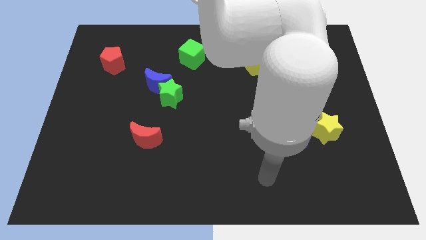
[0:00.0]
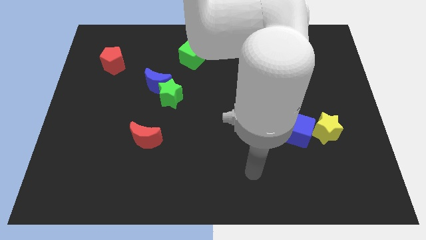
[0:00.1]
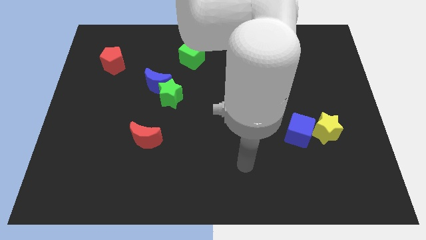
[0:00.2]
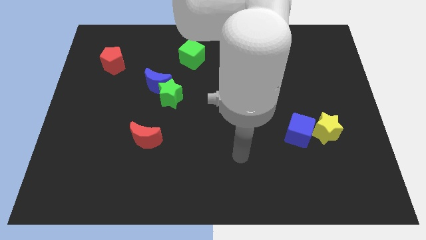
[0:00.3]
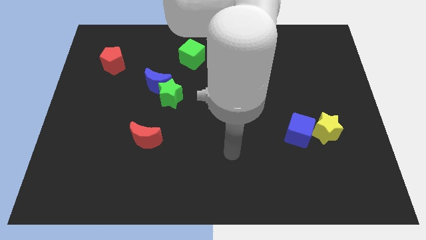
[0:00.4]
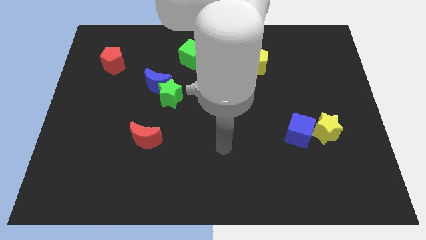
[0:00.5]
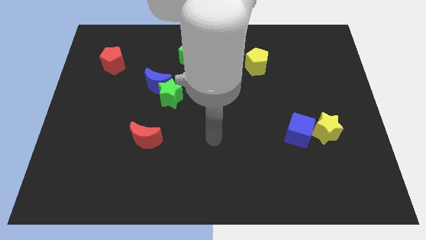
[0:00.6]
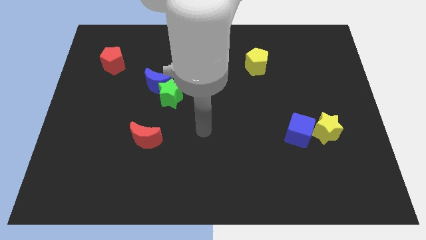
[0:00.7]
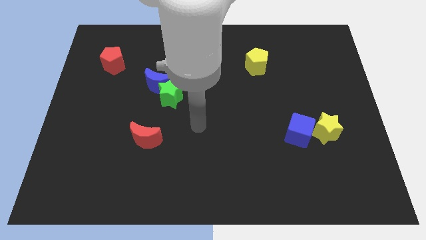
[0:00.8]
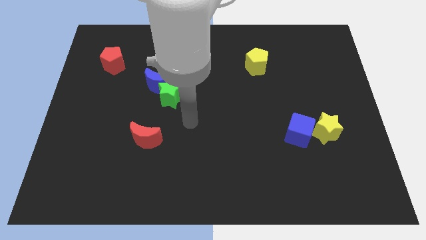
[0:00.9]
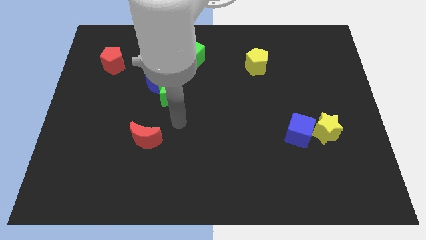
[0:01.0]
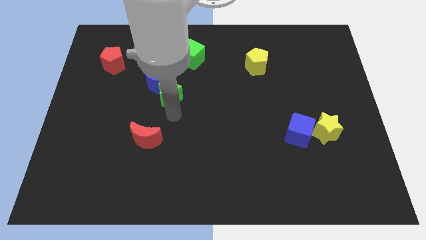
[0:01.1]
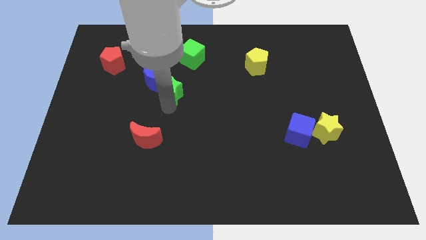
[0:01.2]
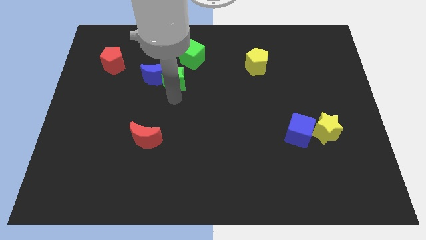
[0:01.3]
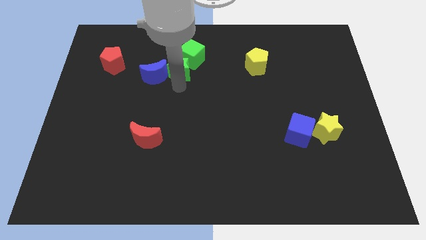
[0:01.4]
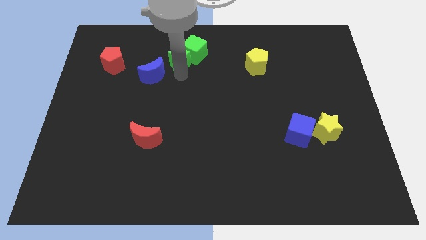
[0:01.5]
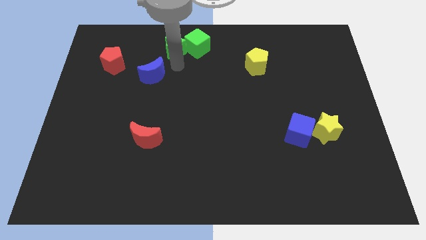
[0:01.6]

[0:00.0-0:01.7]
pull the blue moon apart from the green star

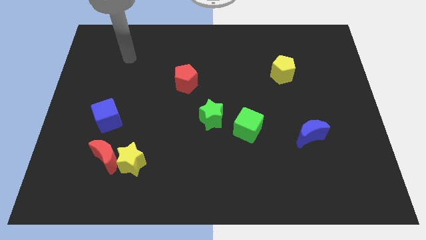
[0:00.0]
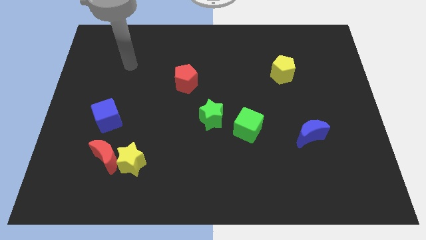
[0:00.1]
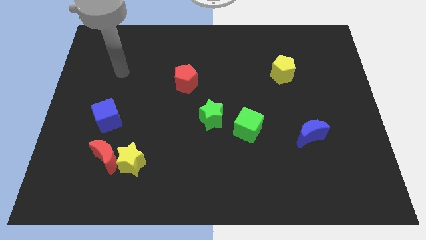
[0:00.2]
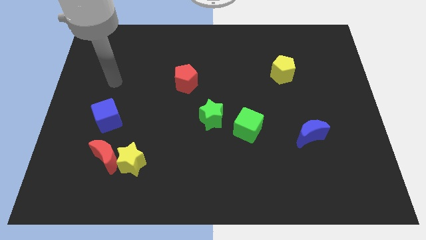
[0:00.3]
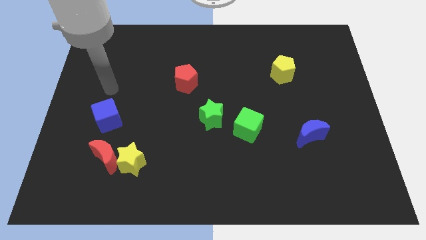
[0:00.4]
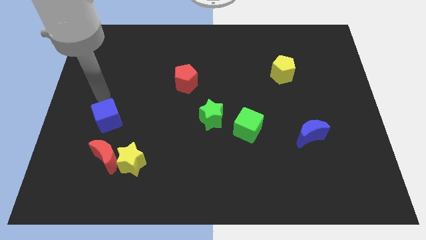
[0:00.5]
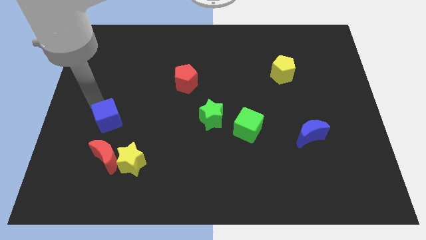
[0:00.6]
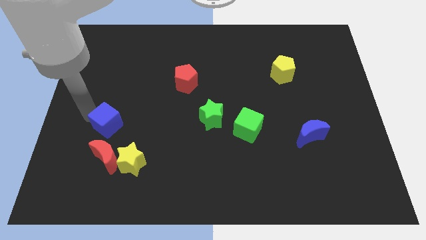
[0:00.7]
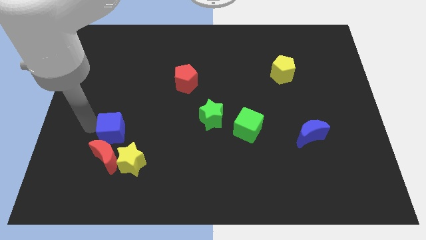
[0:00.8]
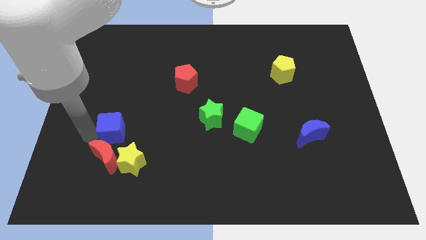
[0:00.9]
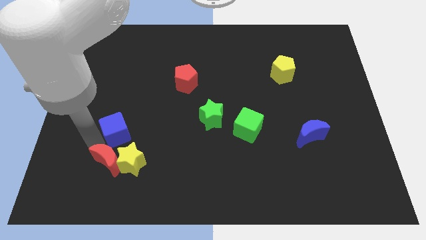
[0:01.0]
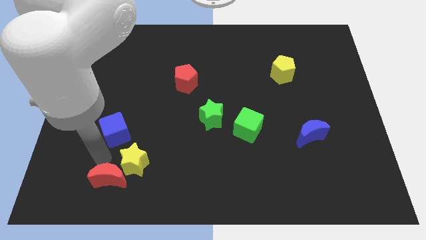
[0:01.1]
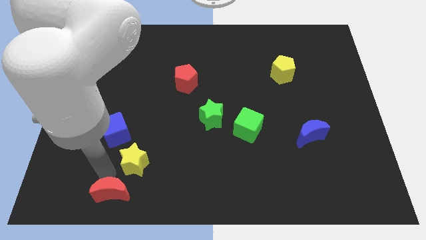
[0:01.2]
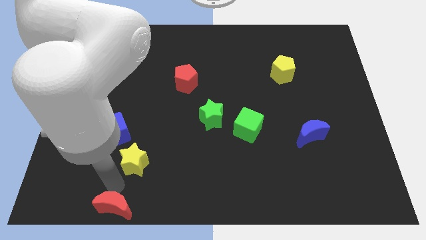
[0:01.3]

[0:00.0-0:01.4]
pull the yellow star apart from the red moon

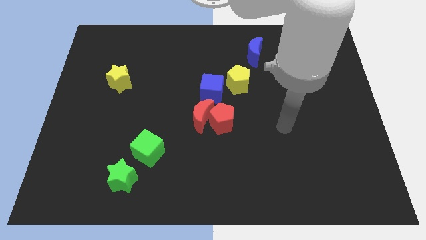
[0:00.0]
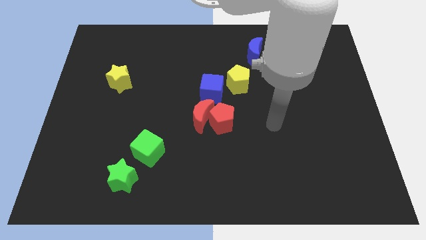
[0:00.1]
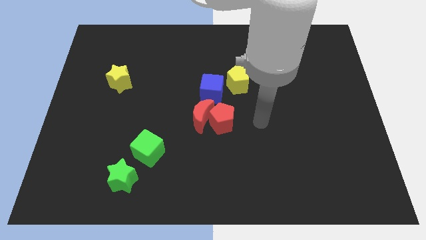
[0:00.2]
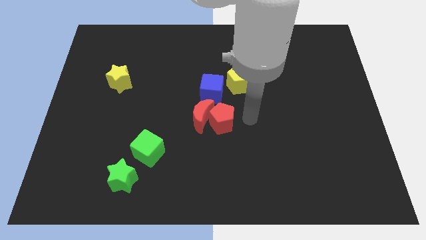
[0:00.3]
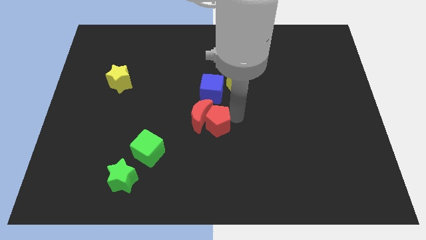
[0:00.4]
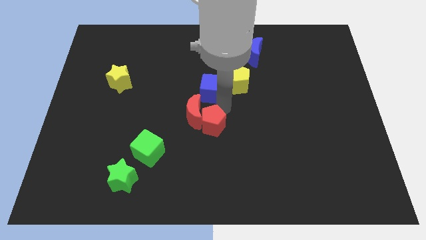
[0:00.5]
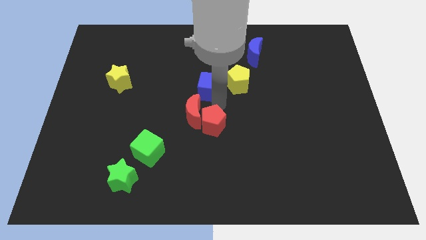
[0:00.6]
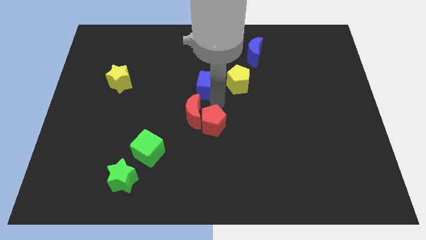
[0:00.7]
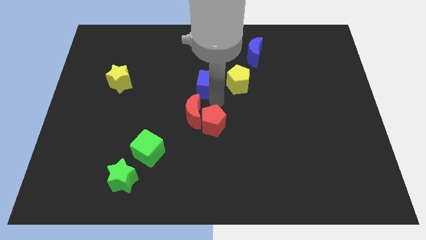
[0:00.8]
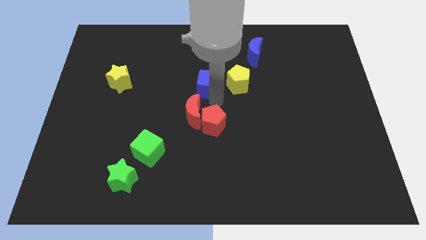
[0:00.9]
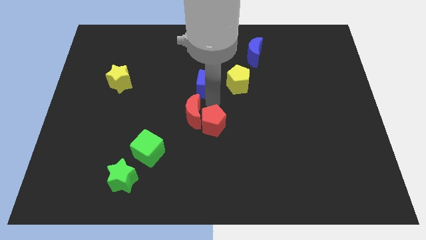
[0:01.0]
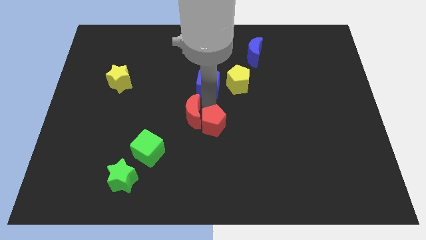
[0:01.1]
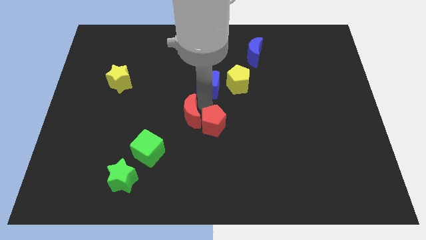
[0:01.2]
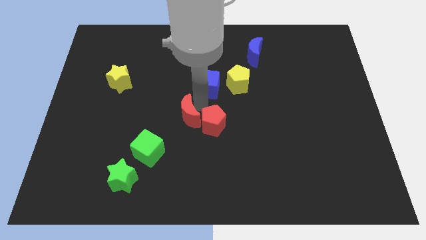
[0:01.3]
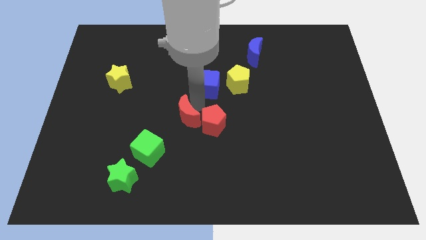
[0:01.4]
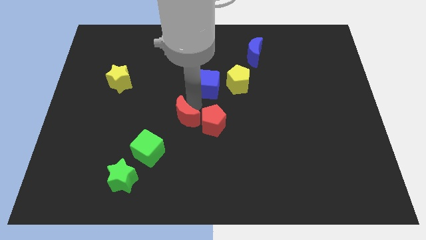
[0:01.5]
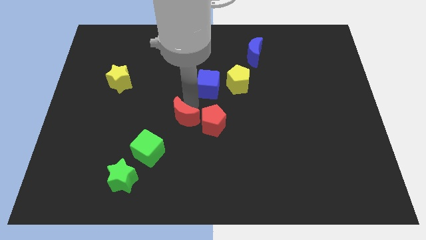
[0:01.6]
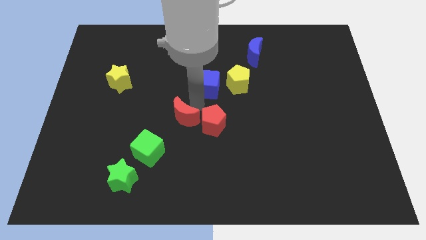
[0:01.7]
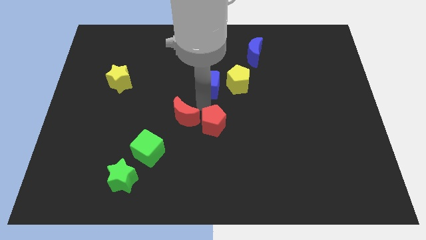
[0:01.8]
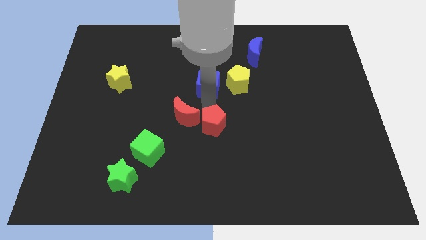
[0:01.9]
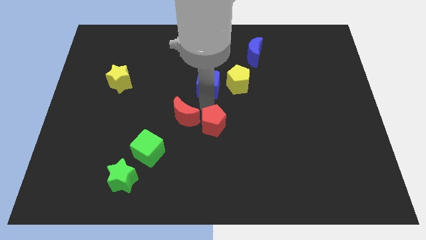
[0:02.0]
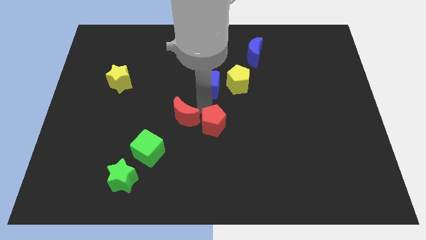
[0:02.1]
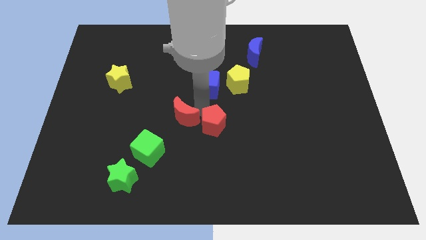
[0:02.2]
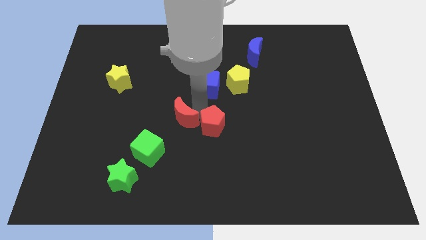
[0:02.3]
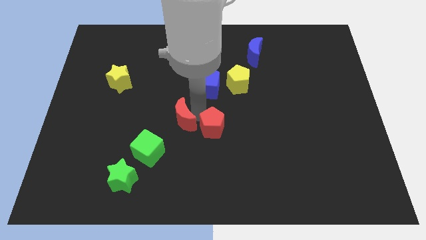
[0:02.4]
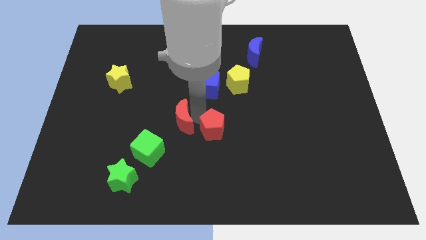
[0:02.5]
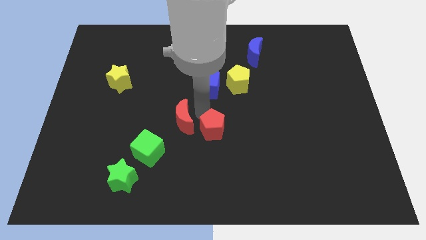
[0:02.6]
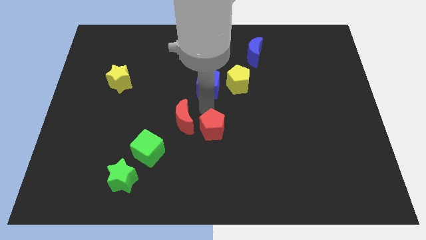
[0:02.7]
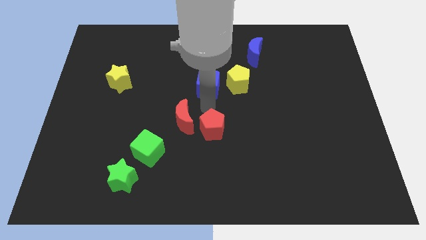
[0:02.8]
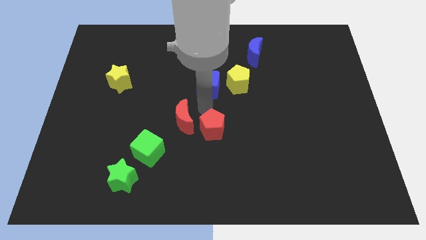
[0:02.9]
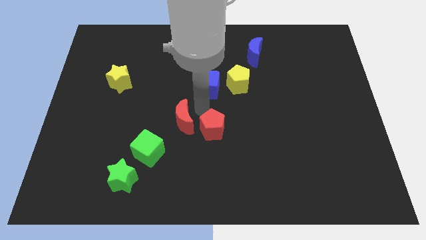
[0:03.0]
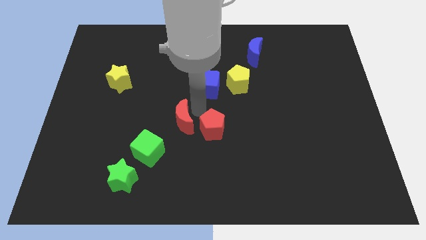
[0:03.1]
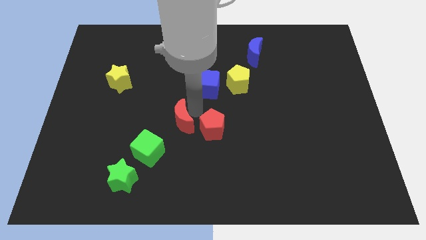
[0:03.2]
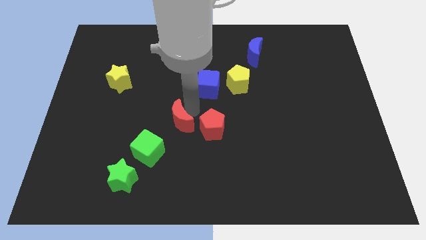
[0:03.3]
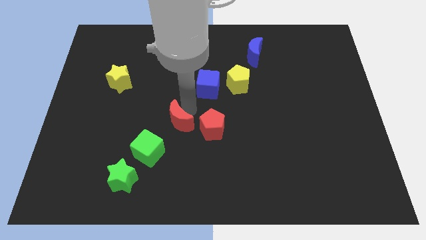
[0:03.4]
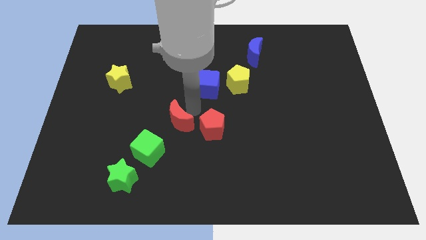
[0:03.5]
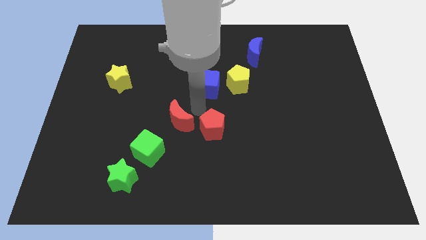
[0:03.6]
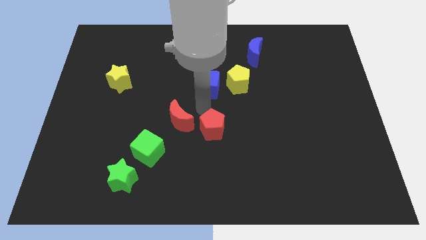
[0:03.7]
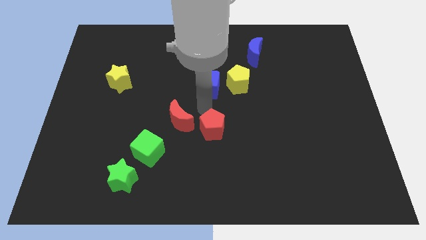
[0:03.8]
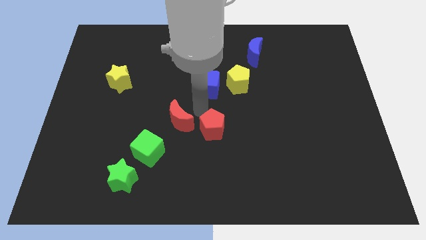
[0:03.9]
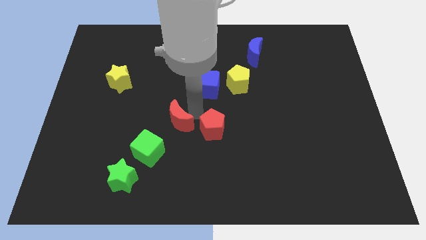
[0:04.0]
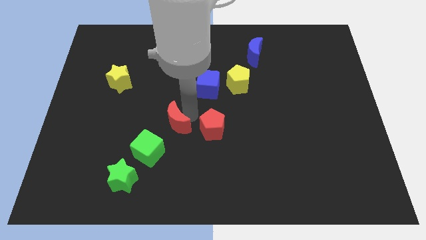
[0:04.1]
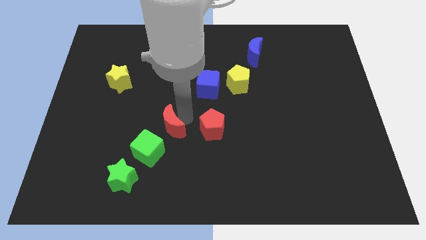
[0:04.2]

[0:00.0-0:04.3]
pull the red moon apart from the red pentagon and blue cube

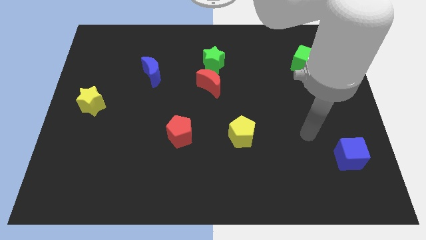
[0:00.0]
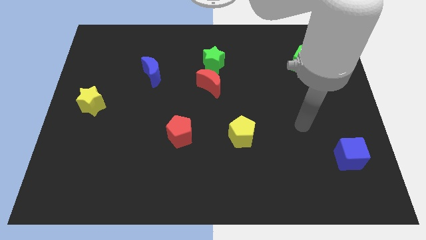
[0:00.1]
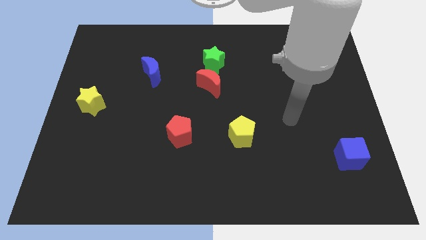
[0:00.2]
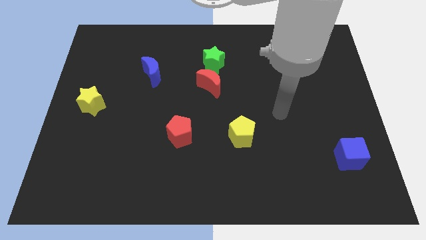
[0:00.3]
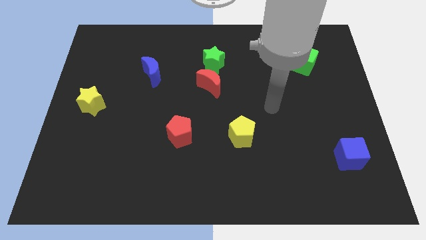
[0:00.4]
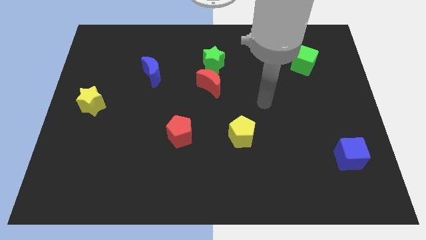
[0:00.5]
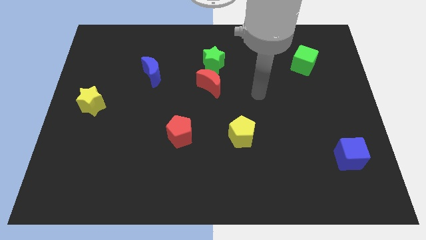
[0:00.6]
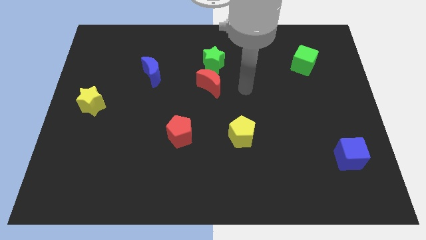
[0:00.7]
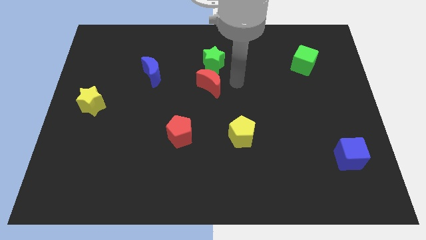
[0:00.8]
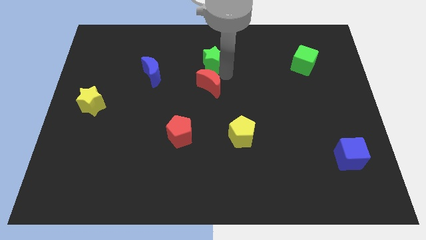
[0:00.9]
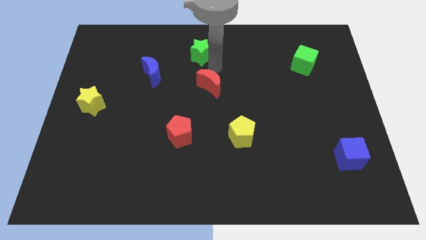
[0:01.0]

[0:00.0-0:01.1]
pull the red moon apart from the green star

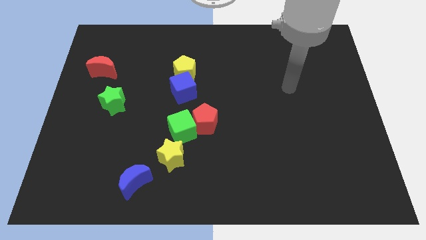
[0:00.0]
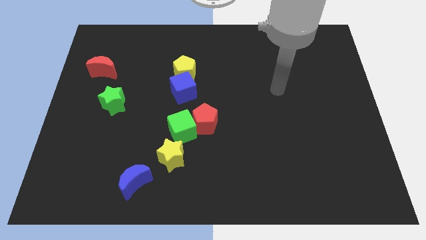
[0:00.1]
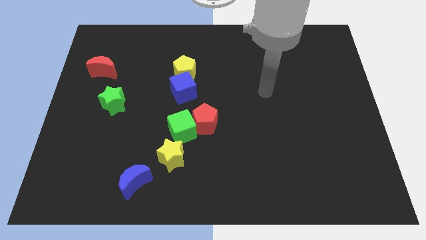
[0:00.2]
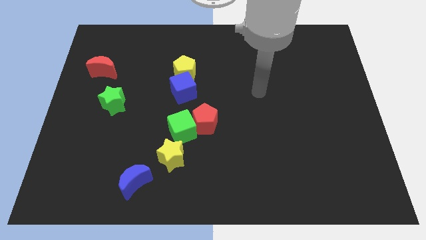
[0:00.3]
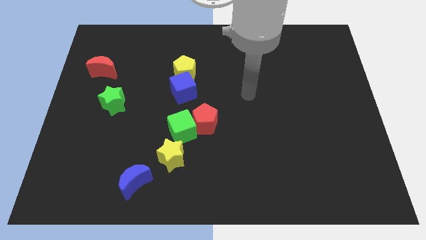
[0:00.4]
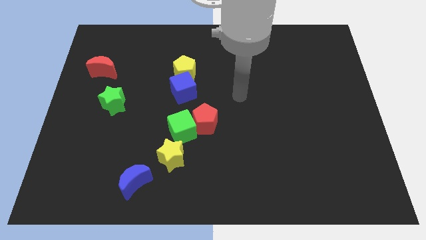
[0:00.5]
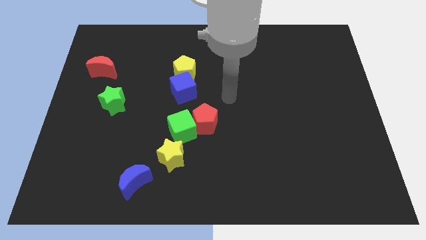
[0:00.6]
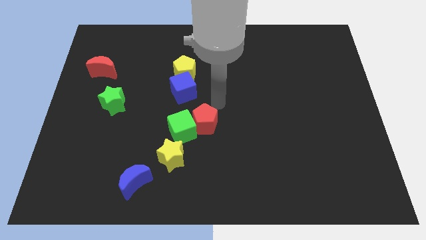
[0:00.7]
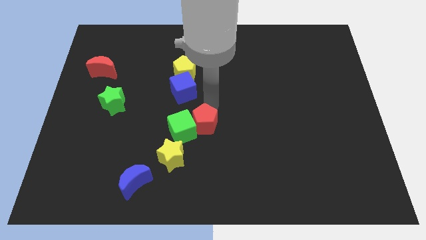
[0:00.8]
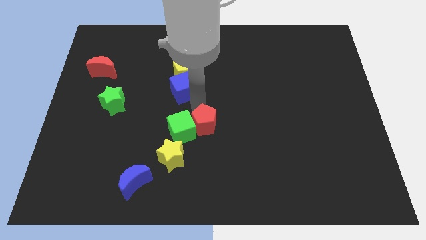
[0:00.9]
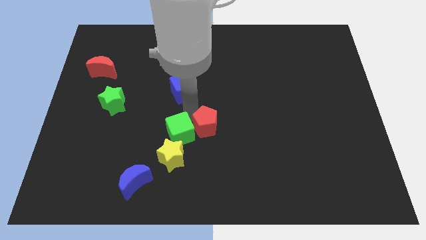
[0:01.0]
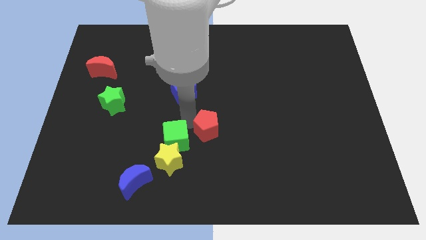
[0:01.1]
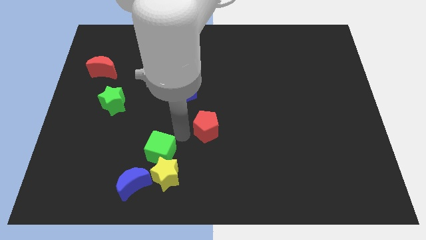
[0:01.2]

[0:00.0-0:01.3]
move the red pentagon away from the green cube
